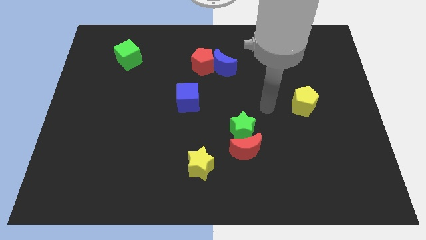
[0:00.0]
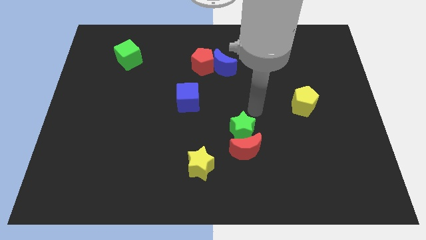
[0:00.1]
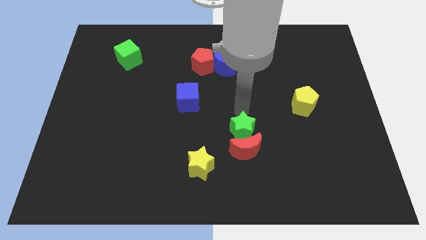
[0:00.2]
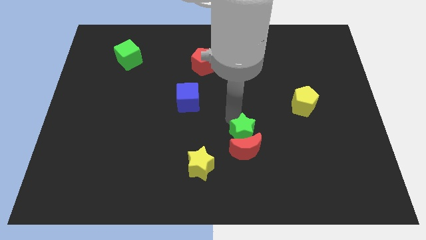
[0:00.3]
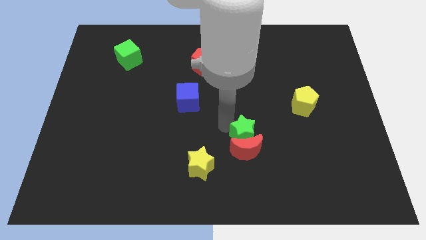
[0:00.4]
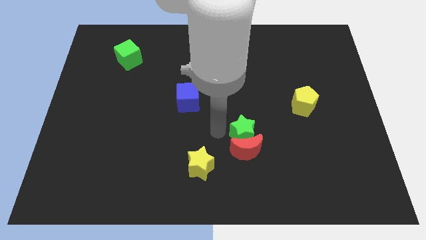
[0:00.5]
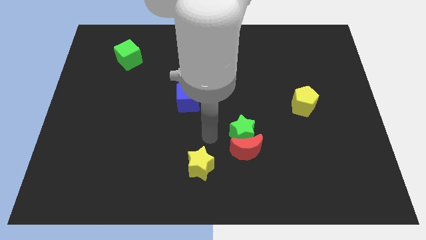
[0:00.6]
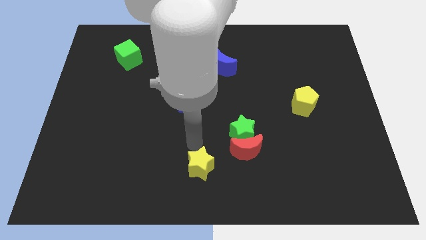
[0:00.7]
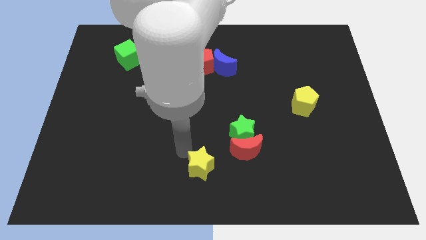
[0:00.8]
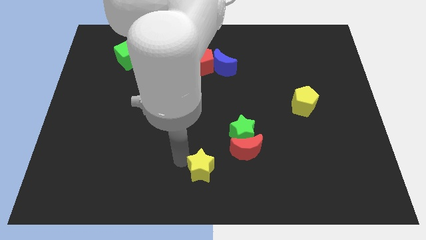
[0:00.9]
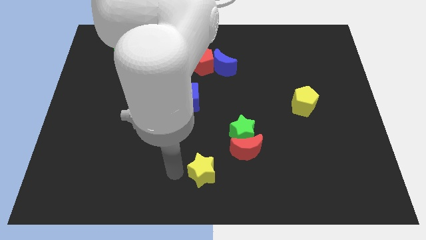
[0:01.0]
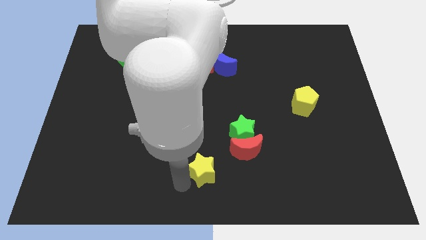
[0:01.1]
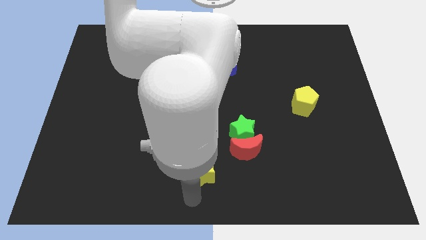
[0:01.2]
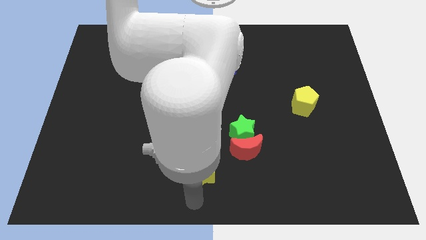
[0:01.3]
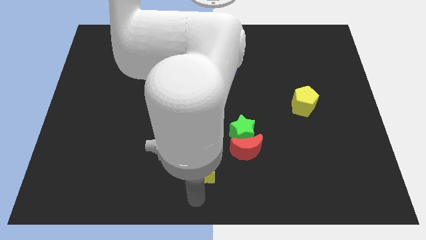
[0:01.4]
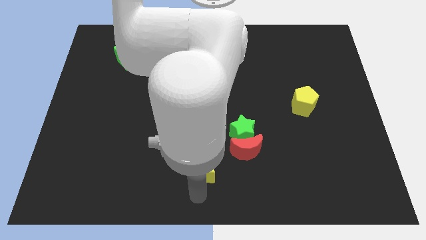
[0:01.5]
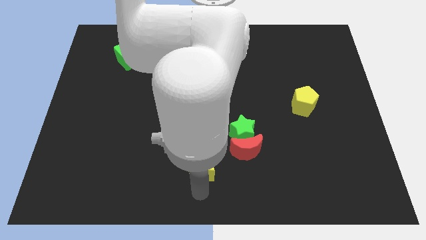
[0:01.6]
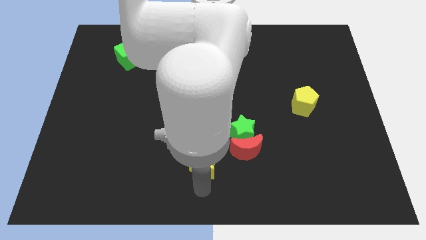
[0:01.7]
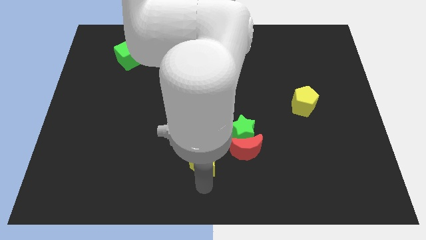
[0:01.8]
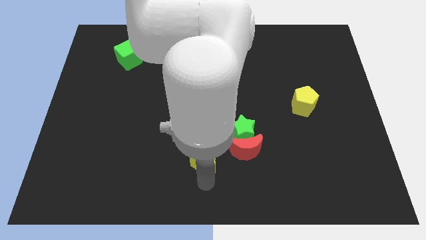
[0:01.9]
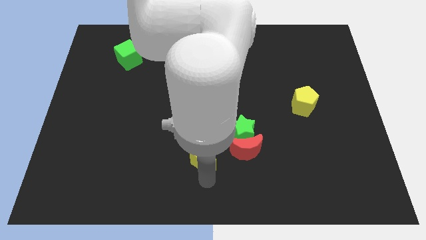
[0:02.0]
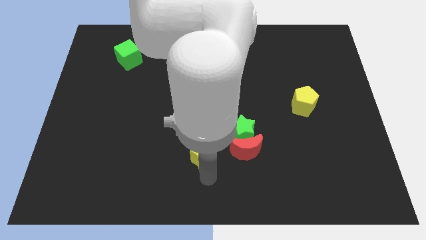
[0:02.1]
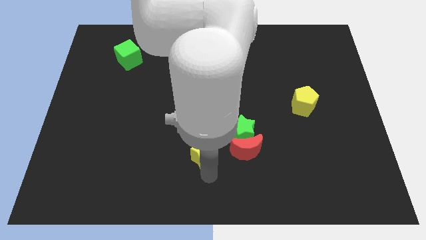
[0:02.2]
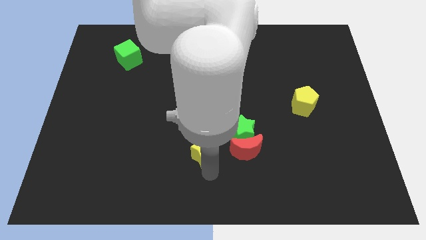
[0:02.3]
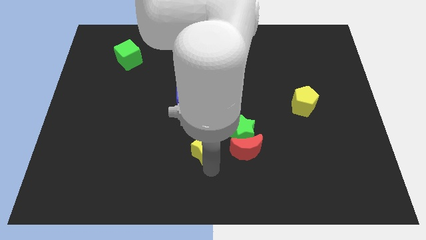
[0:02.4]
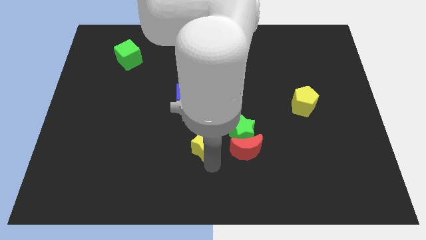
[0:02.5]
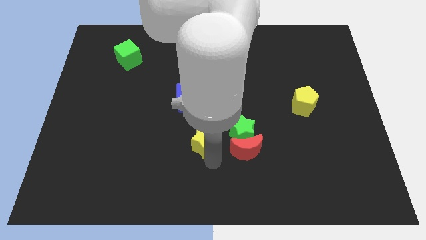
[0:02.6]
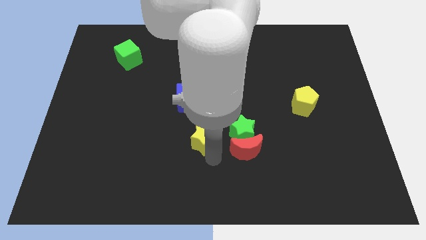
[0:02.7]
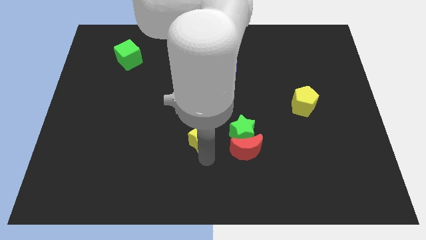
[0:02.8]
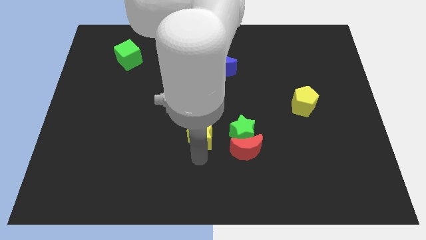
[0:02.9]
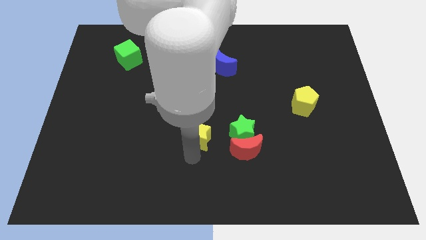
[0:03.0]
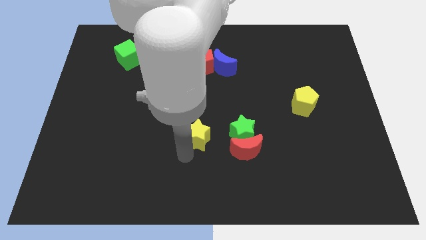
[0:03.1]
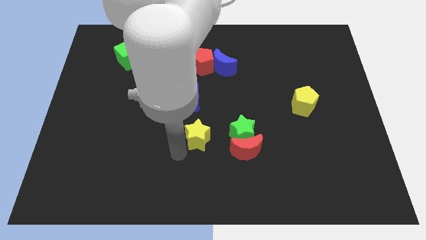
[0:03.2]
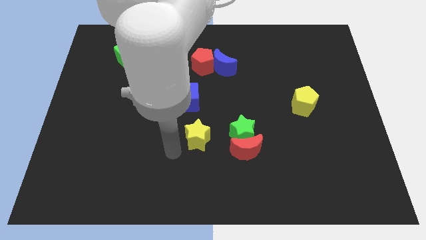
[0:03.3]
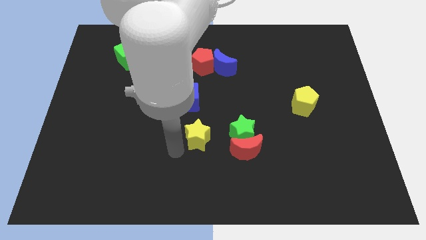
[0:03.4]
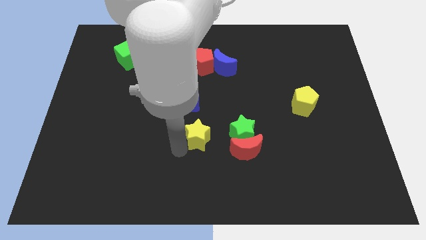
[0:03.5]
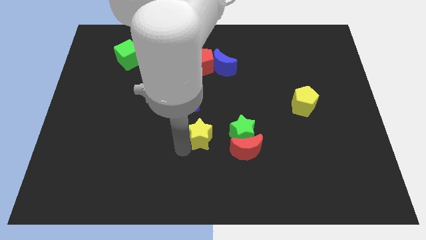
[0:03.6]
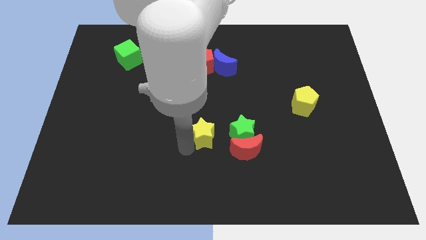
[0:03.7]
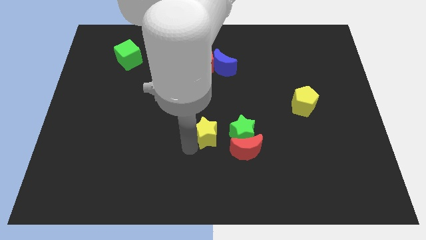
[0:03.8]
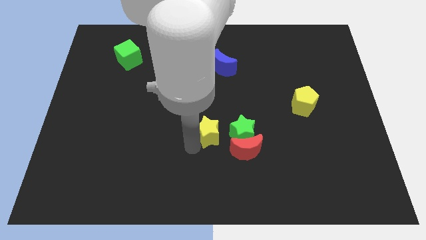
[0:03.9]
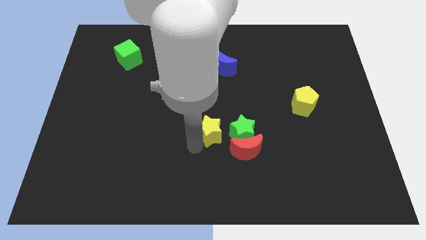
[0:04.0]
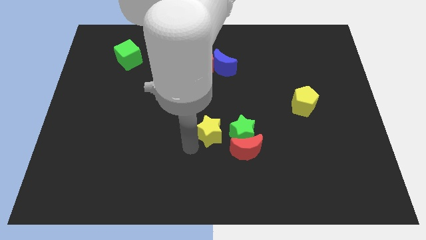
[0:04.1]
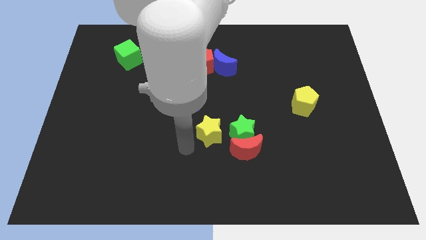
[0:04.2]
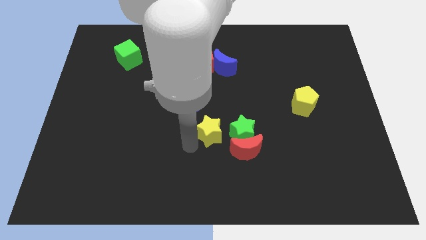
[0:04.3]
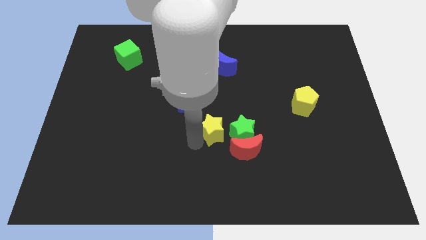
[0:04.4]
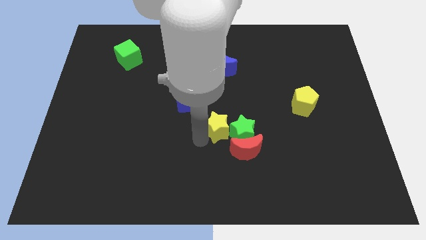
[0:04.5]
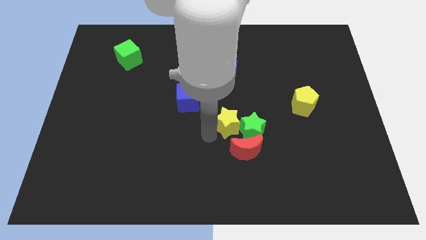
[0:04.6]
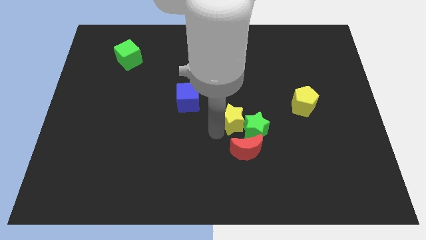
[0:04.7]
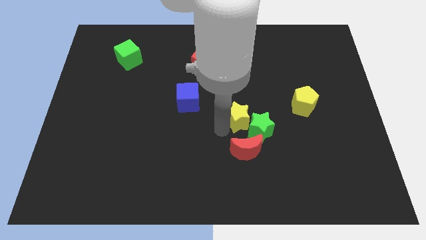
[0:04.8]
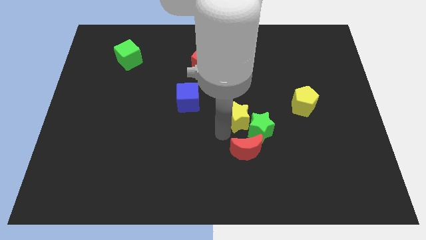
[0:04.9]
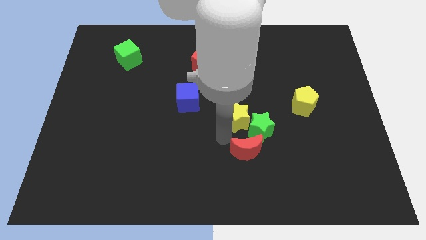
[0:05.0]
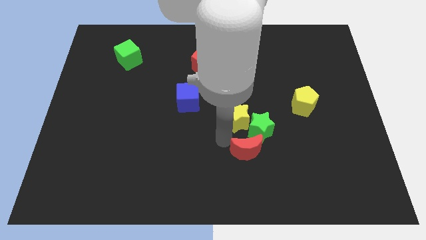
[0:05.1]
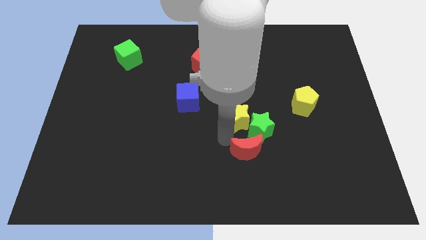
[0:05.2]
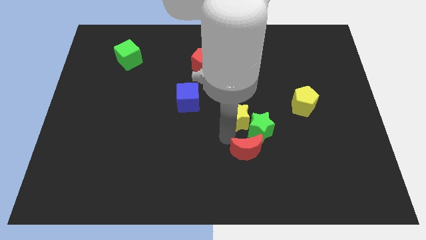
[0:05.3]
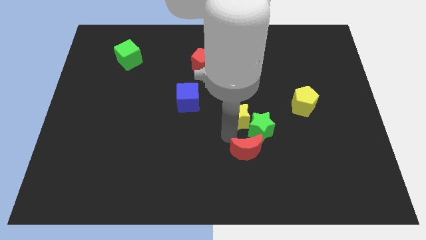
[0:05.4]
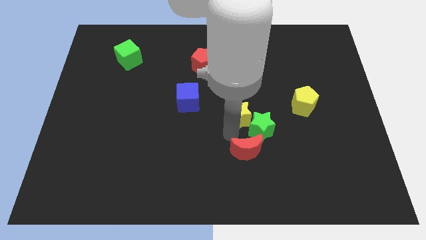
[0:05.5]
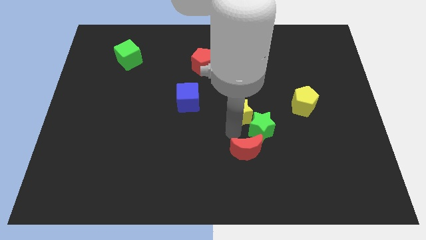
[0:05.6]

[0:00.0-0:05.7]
put the yellow star just left of the yellow pentagon

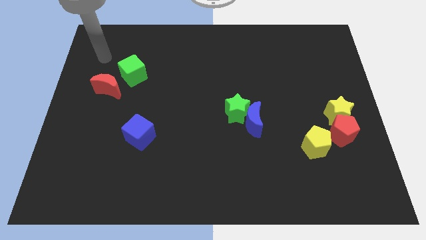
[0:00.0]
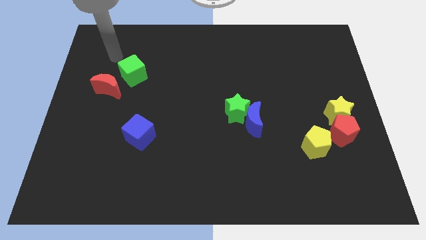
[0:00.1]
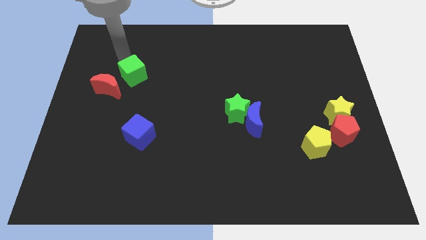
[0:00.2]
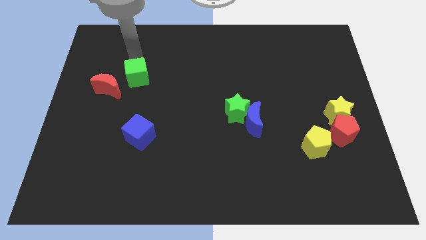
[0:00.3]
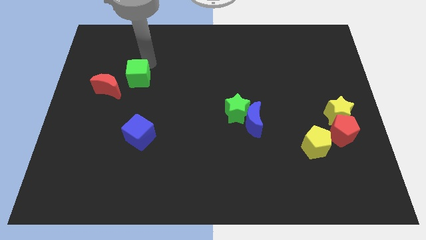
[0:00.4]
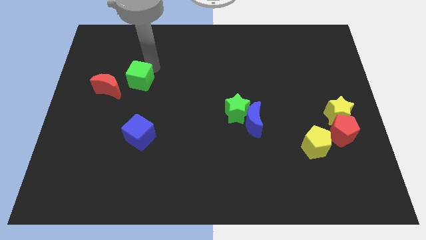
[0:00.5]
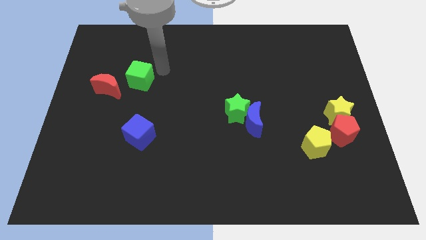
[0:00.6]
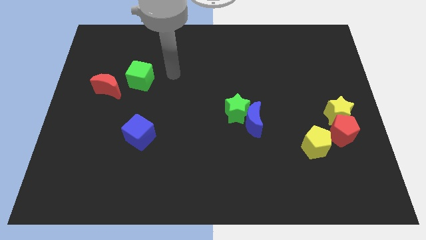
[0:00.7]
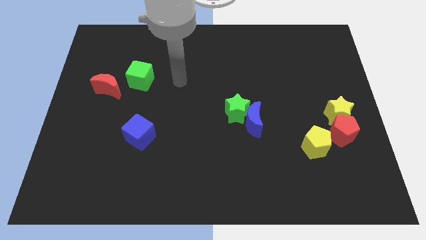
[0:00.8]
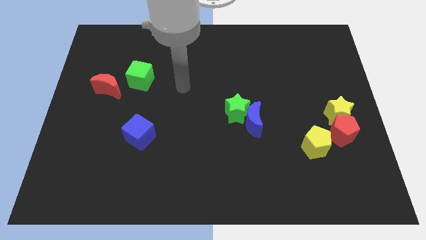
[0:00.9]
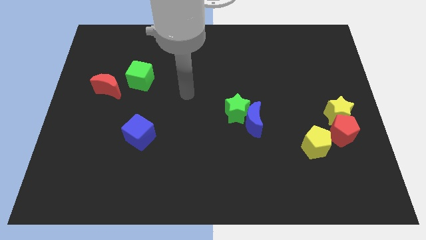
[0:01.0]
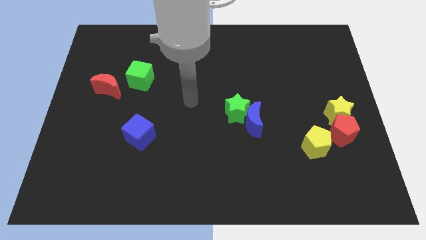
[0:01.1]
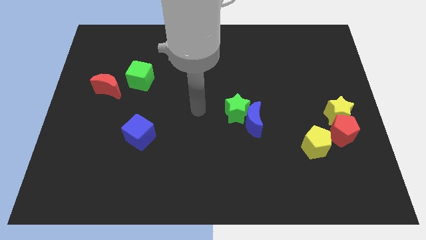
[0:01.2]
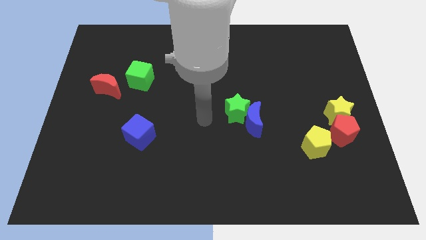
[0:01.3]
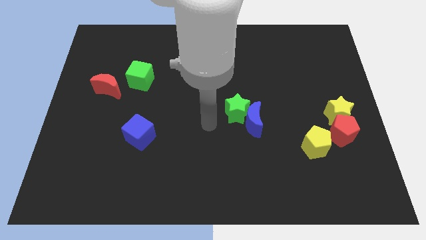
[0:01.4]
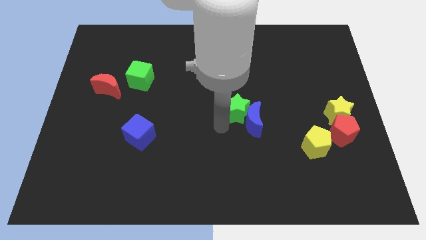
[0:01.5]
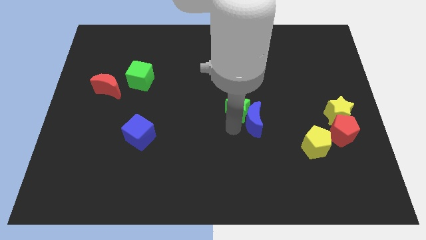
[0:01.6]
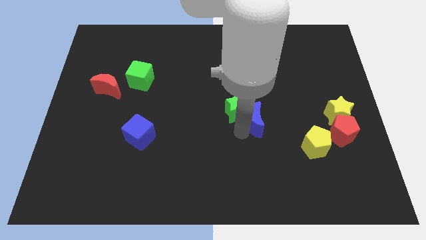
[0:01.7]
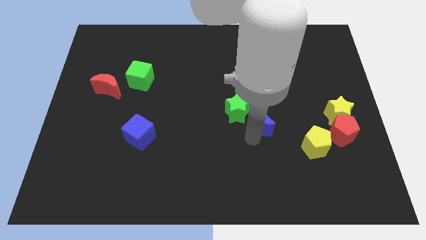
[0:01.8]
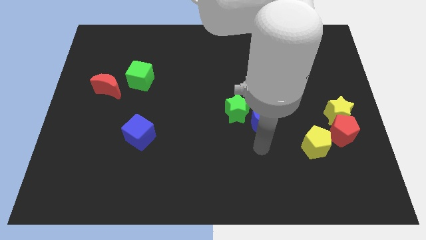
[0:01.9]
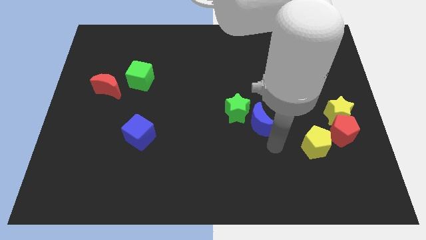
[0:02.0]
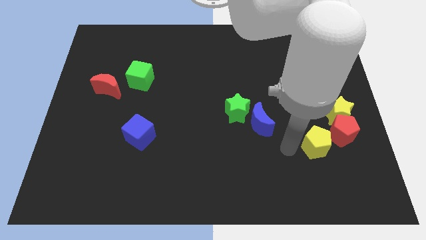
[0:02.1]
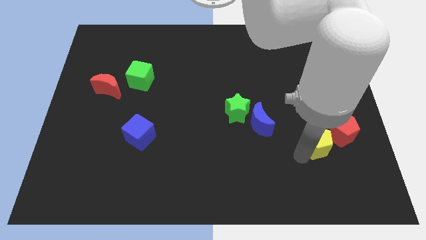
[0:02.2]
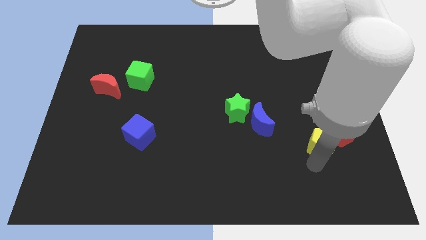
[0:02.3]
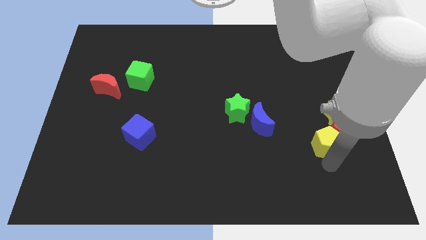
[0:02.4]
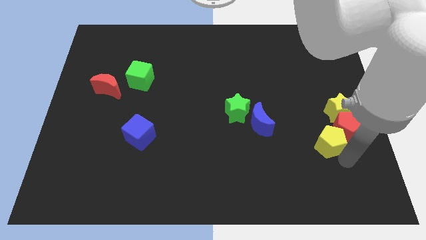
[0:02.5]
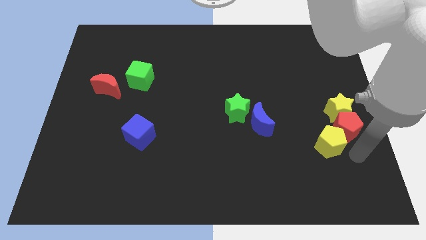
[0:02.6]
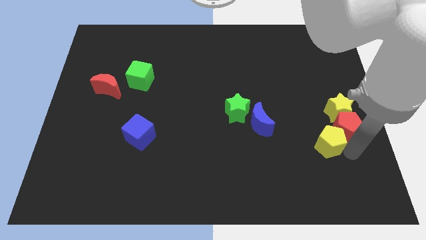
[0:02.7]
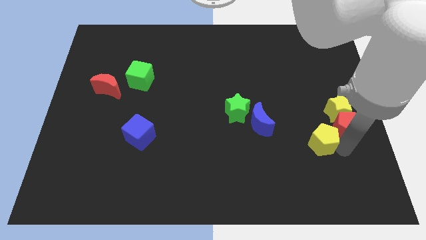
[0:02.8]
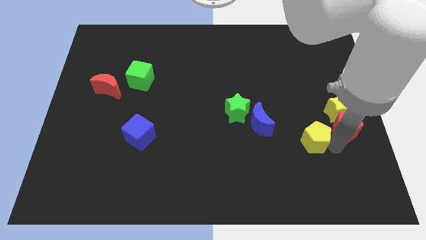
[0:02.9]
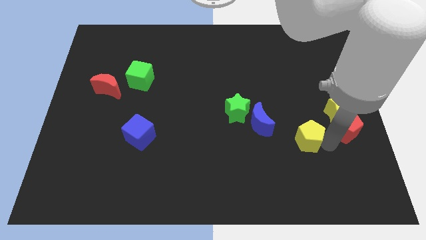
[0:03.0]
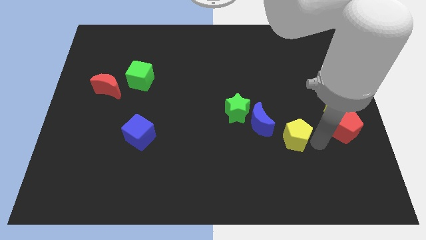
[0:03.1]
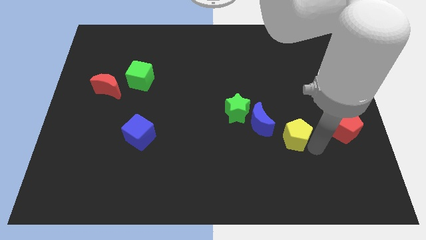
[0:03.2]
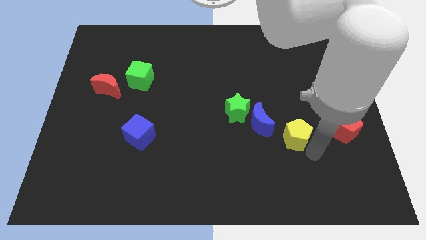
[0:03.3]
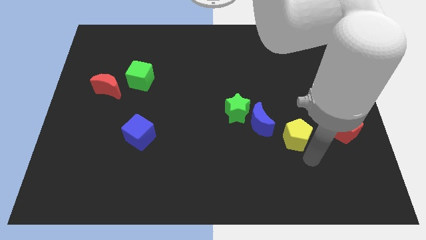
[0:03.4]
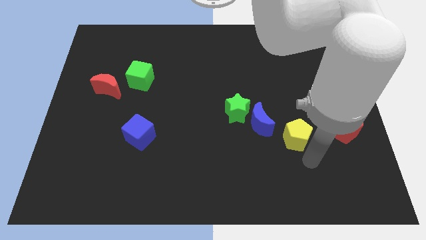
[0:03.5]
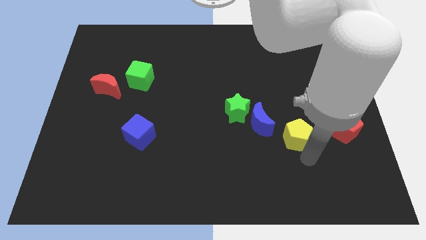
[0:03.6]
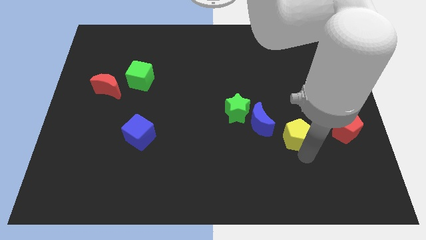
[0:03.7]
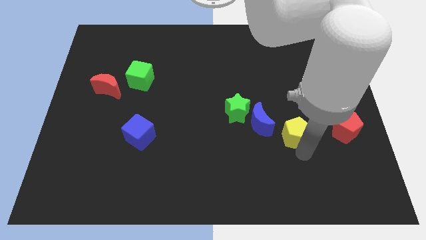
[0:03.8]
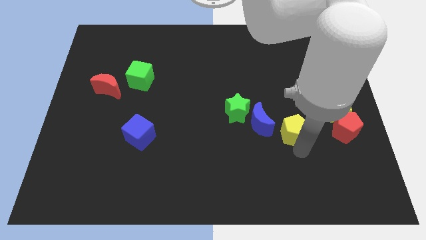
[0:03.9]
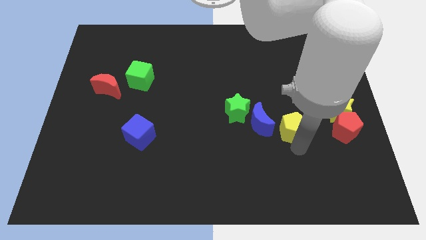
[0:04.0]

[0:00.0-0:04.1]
put the yellow pentagon right of the green star
